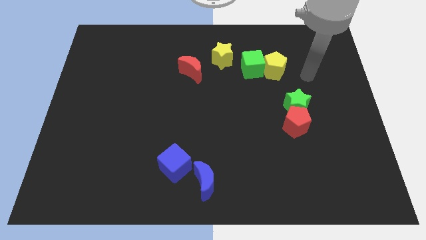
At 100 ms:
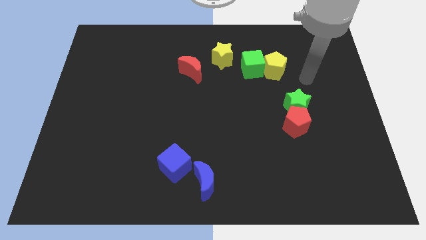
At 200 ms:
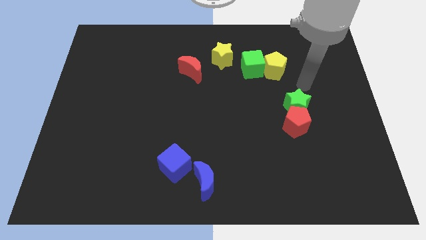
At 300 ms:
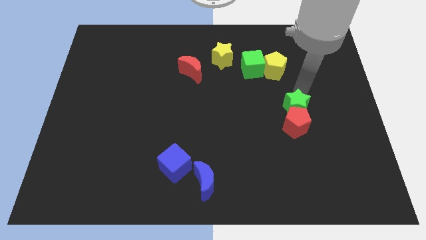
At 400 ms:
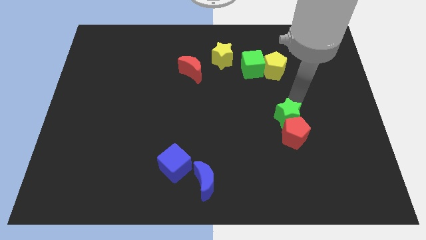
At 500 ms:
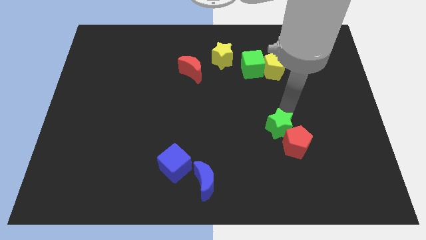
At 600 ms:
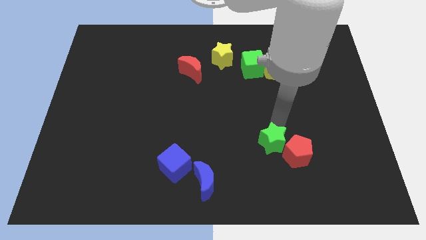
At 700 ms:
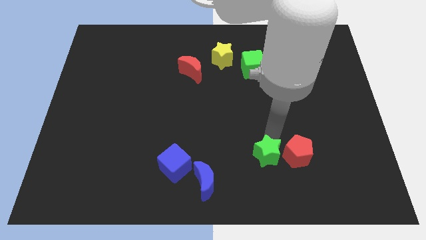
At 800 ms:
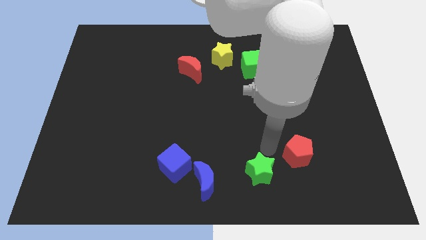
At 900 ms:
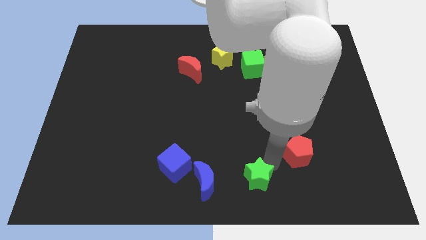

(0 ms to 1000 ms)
pull the red pentagon apart from the green star

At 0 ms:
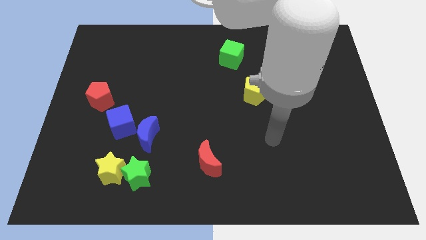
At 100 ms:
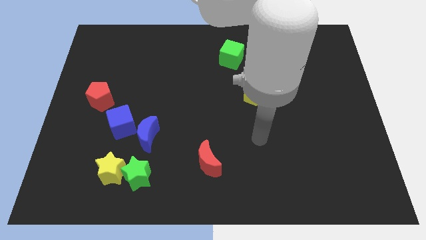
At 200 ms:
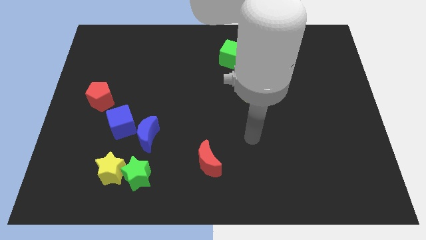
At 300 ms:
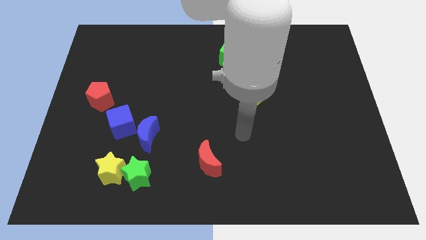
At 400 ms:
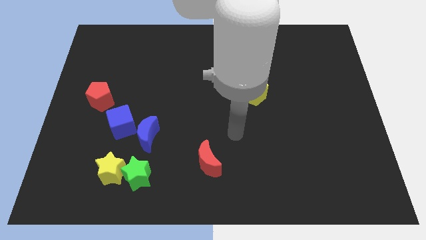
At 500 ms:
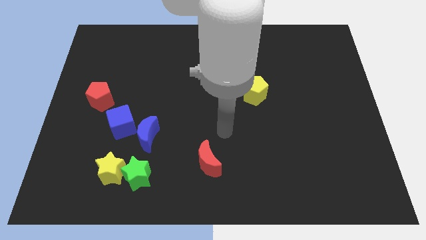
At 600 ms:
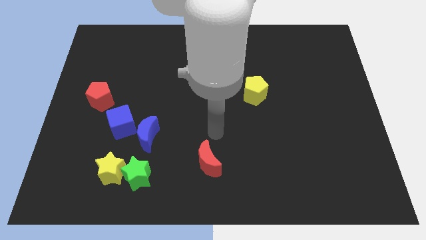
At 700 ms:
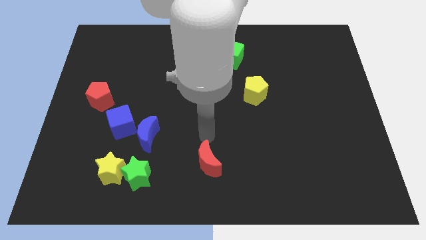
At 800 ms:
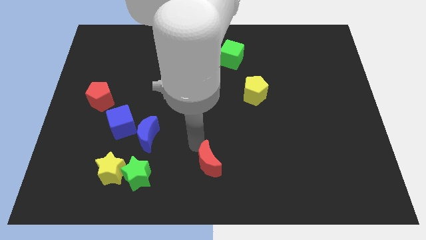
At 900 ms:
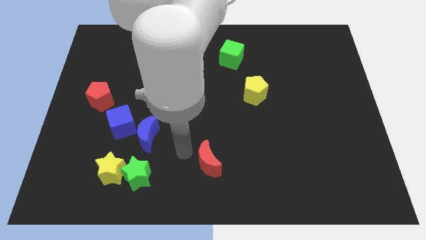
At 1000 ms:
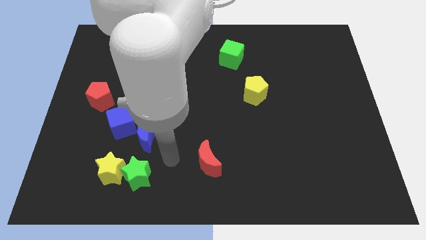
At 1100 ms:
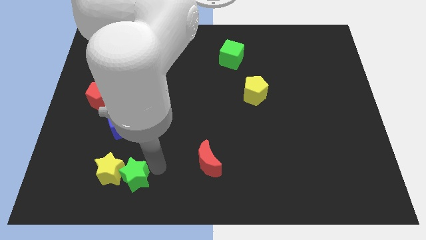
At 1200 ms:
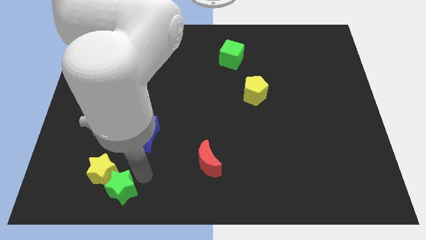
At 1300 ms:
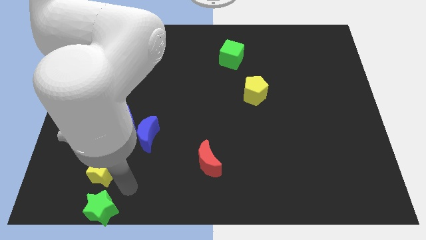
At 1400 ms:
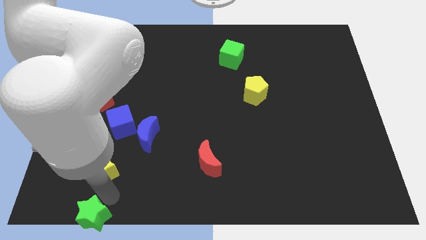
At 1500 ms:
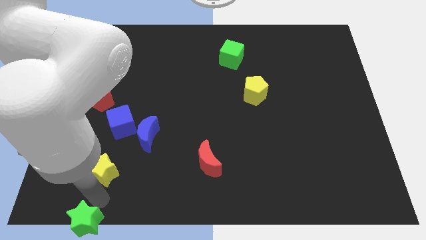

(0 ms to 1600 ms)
pull the yellow star apart from the green star

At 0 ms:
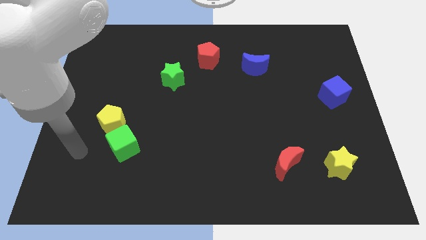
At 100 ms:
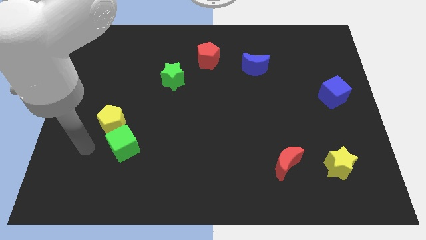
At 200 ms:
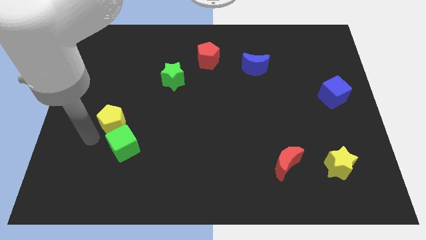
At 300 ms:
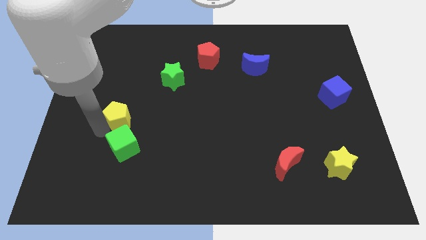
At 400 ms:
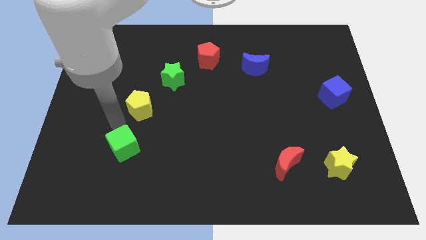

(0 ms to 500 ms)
separate the green cube from the yellow pentagon

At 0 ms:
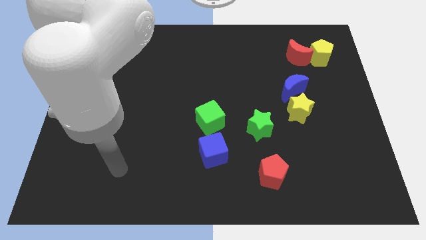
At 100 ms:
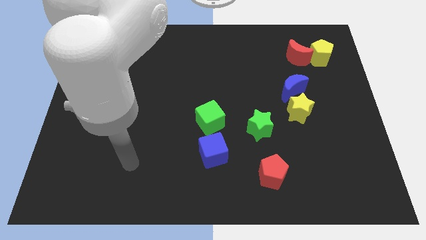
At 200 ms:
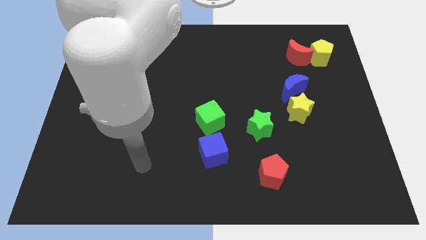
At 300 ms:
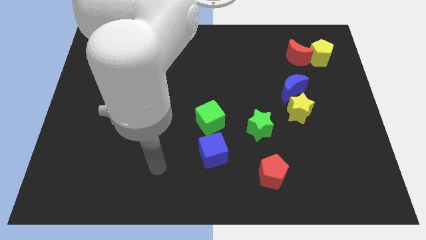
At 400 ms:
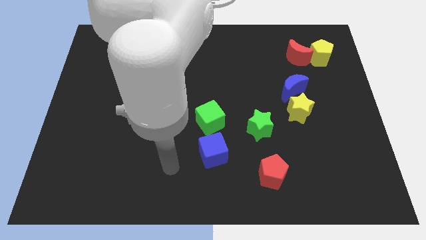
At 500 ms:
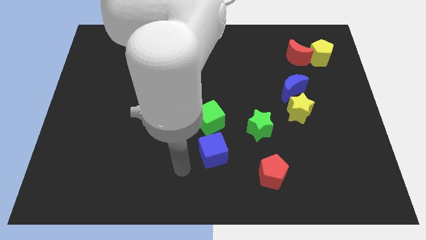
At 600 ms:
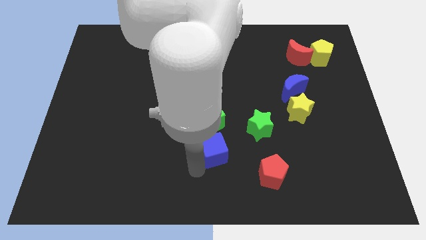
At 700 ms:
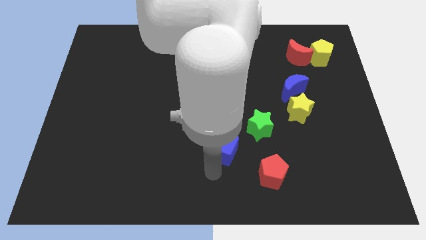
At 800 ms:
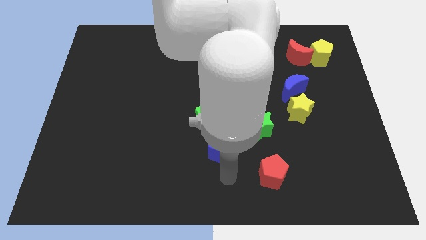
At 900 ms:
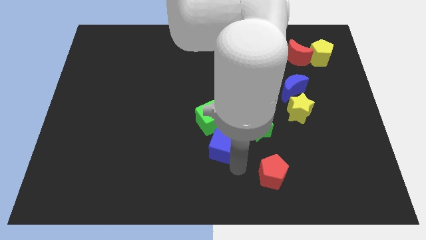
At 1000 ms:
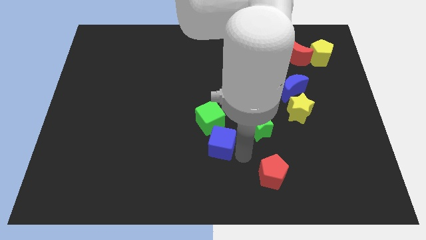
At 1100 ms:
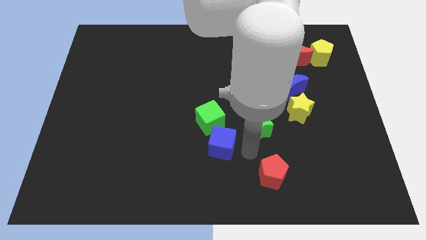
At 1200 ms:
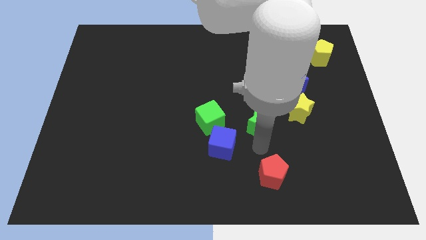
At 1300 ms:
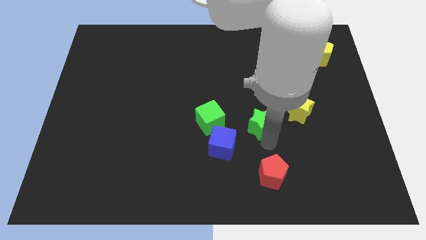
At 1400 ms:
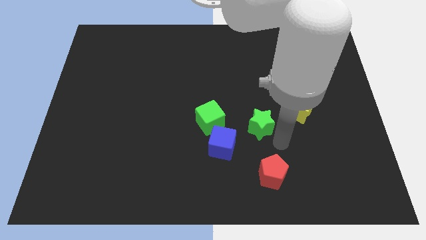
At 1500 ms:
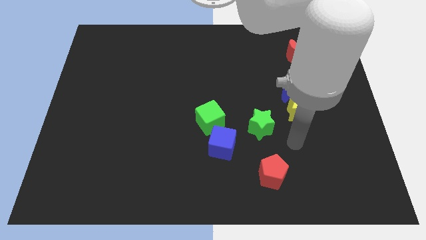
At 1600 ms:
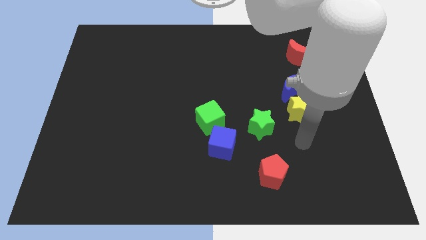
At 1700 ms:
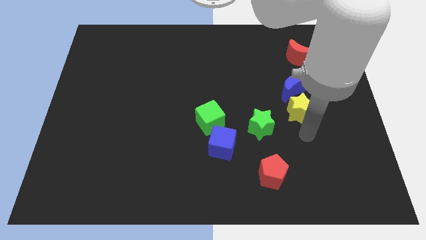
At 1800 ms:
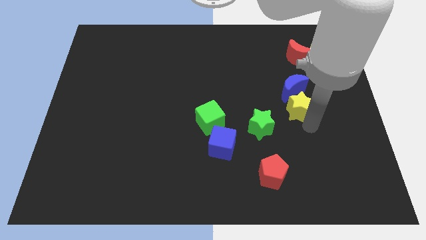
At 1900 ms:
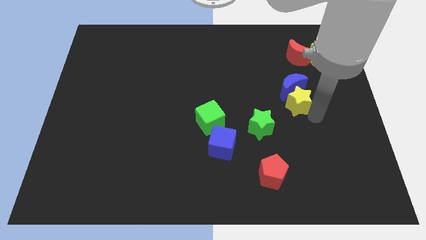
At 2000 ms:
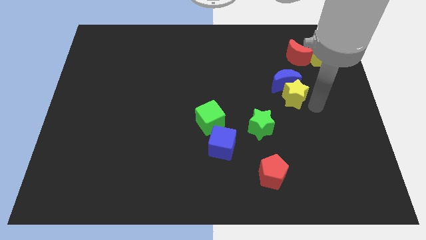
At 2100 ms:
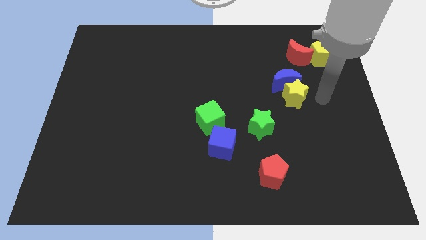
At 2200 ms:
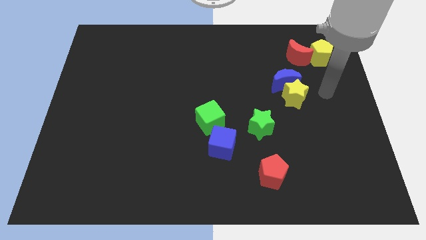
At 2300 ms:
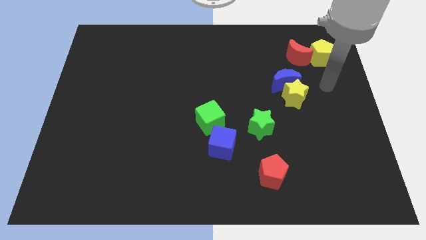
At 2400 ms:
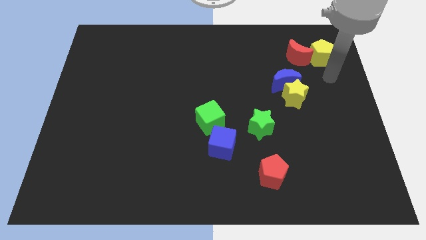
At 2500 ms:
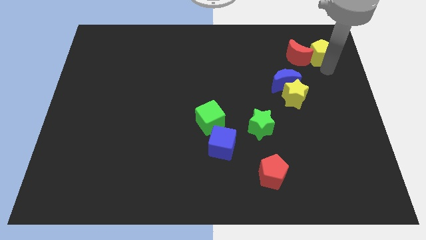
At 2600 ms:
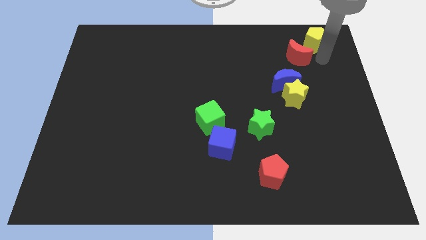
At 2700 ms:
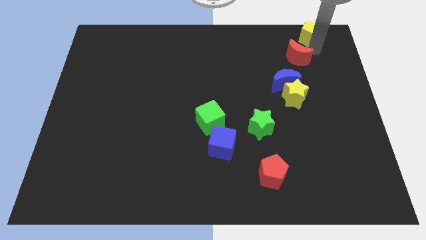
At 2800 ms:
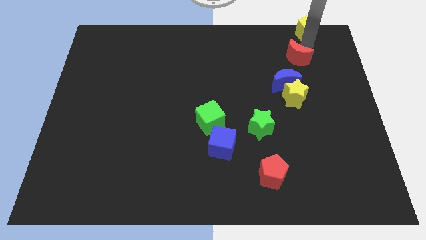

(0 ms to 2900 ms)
move the red moon away from the yellow pentagon

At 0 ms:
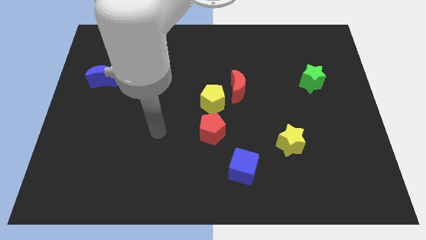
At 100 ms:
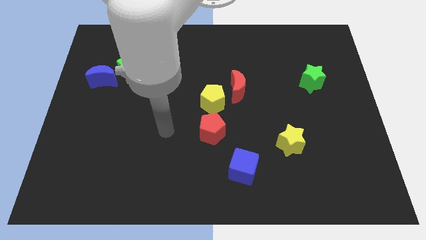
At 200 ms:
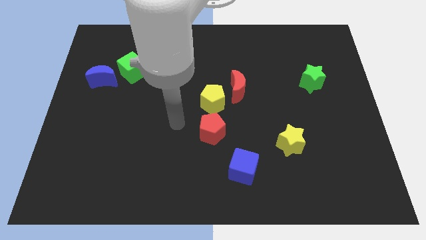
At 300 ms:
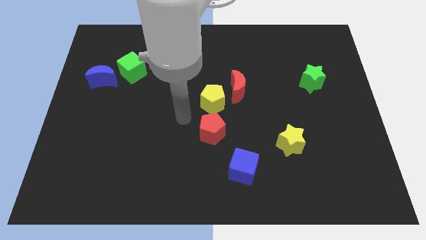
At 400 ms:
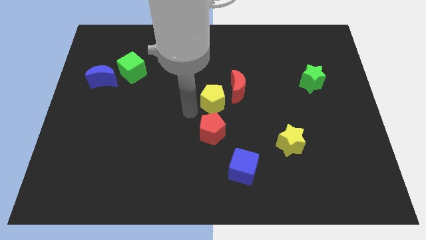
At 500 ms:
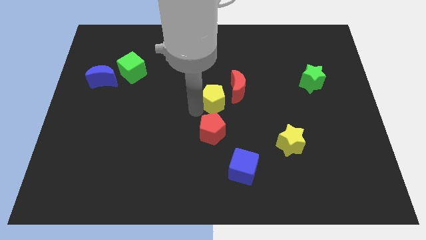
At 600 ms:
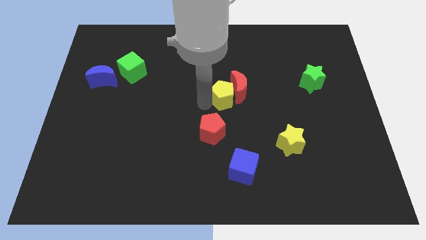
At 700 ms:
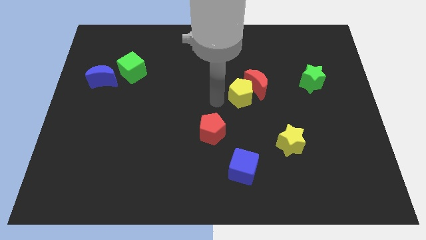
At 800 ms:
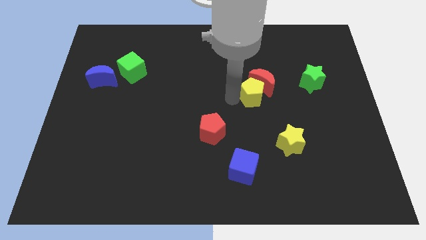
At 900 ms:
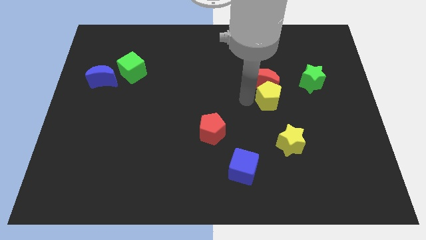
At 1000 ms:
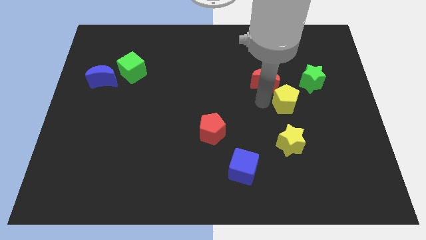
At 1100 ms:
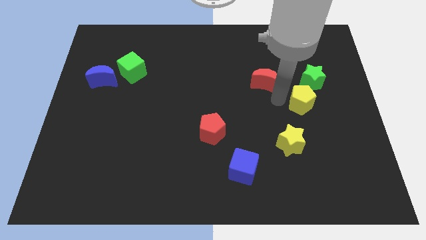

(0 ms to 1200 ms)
pull the red moon apart from the yellow pentagon

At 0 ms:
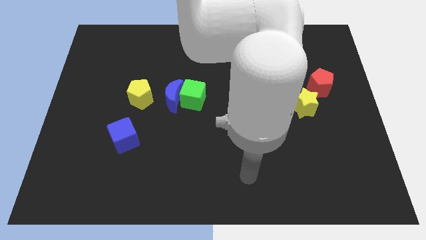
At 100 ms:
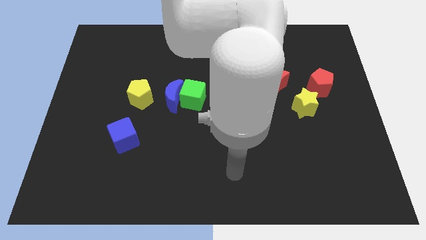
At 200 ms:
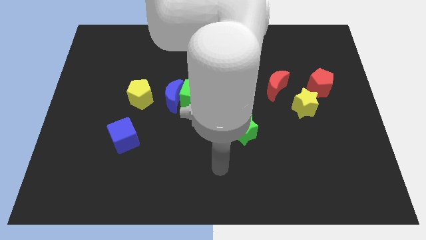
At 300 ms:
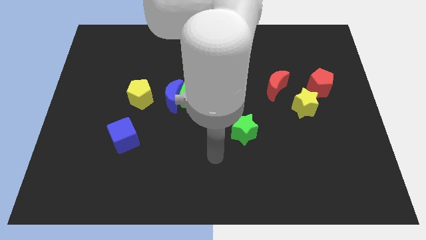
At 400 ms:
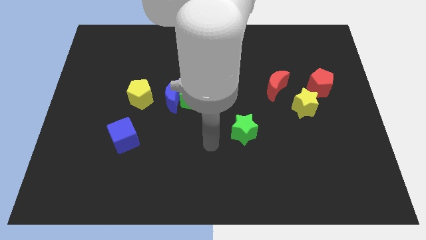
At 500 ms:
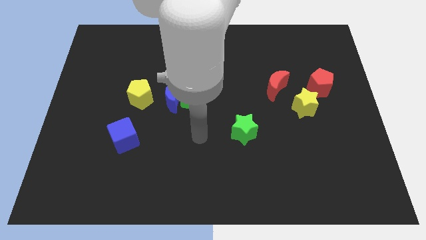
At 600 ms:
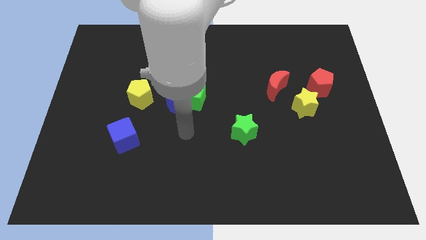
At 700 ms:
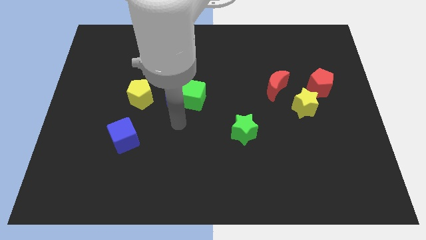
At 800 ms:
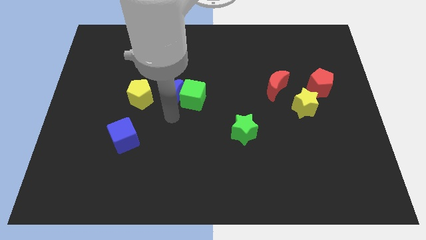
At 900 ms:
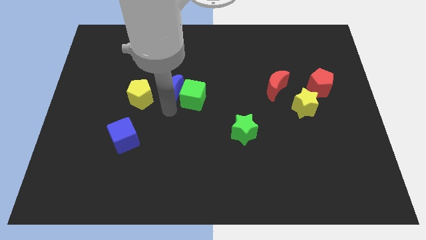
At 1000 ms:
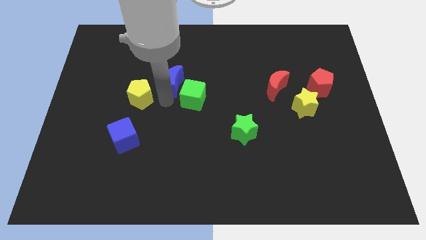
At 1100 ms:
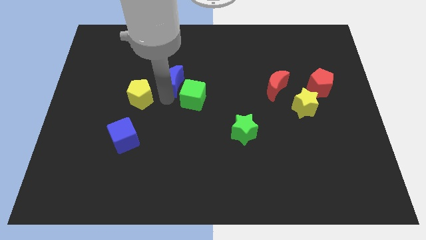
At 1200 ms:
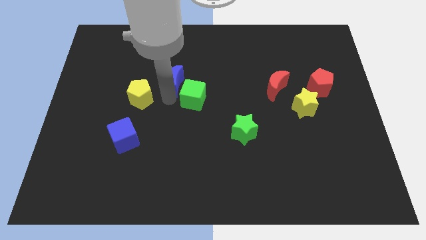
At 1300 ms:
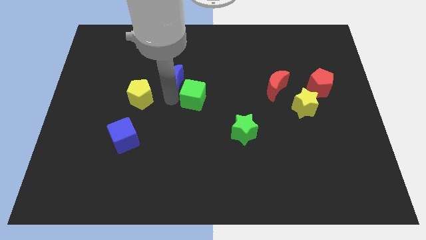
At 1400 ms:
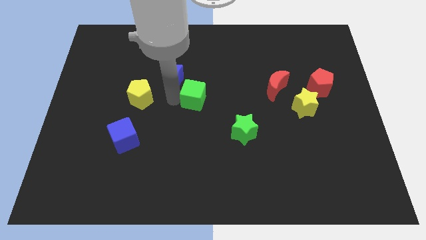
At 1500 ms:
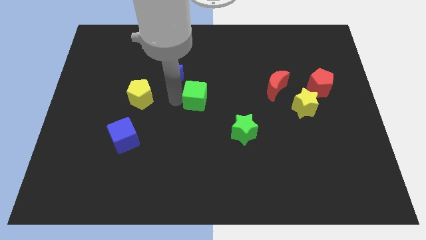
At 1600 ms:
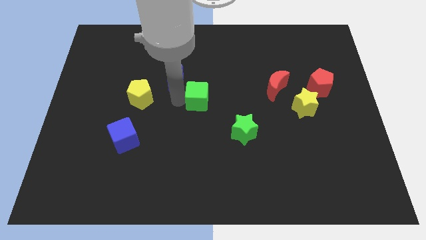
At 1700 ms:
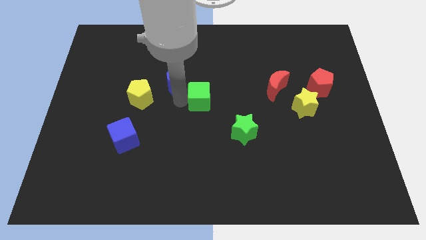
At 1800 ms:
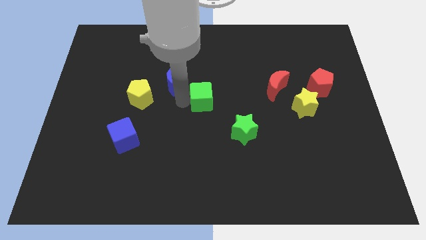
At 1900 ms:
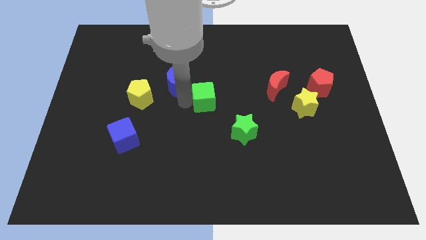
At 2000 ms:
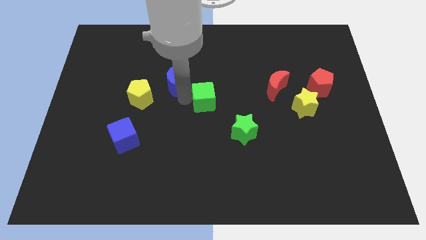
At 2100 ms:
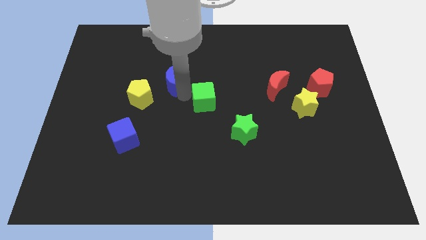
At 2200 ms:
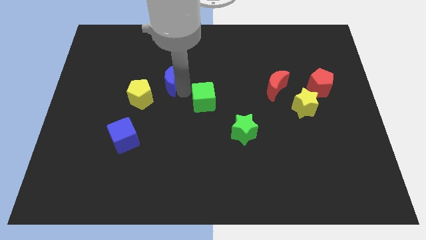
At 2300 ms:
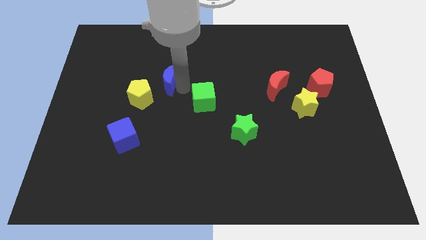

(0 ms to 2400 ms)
move the green cube away from the blue moon
